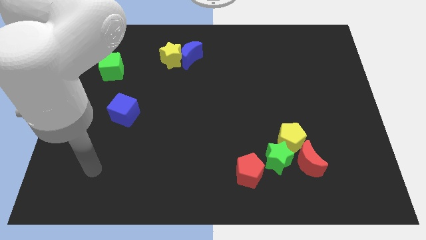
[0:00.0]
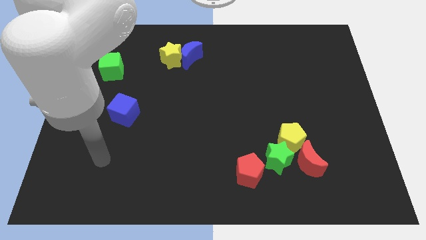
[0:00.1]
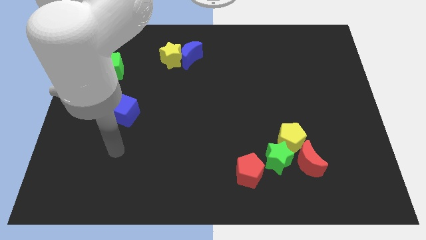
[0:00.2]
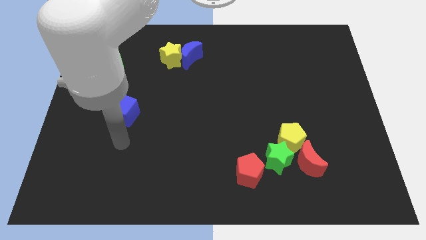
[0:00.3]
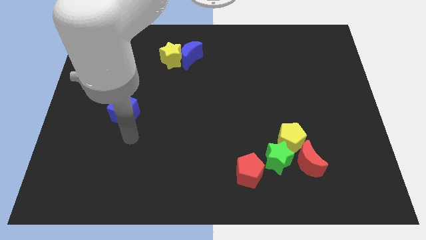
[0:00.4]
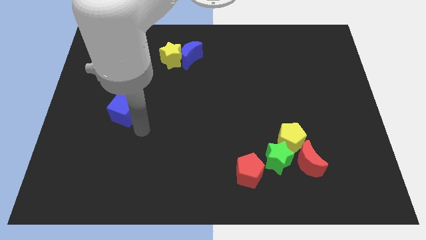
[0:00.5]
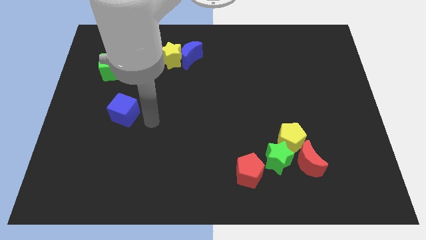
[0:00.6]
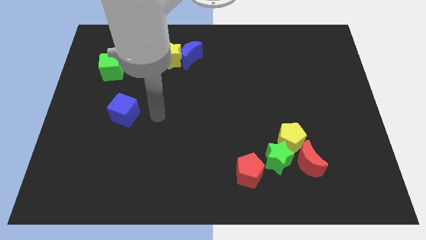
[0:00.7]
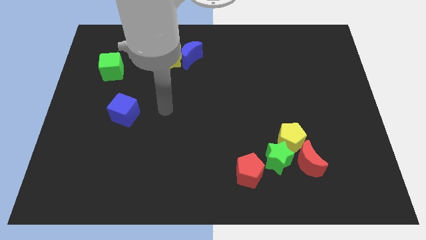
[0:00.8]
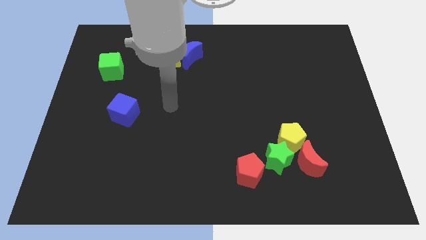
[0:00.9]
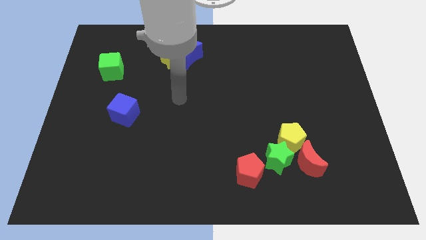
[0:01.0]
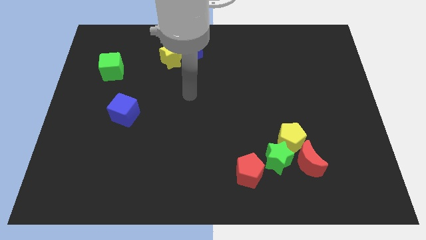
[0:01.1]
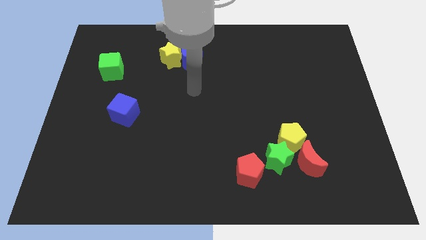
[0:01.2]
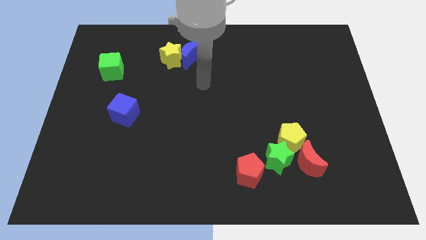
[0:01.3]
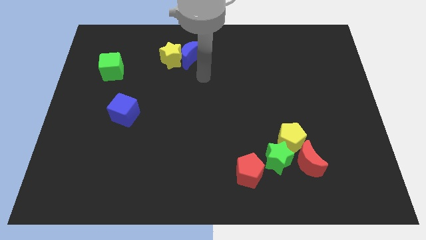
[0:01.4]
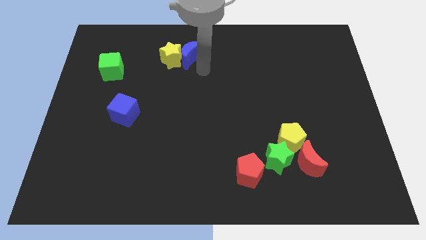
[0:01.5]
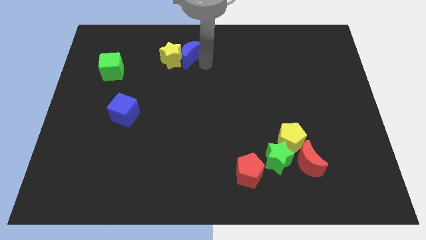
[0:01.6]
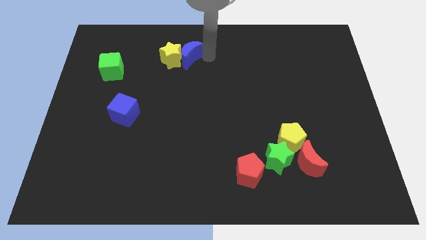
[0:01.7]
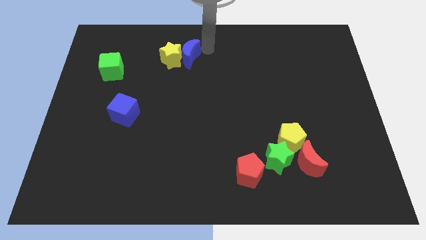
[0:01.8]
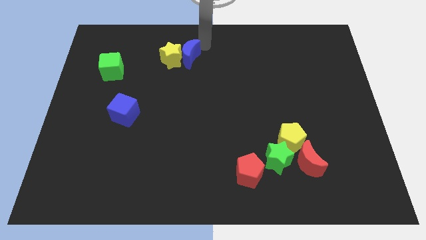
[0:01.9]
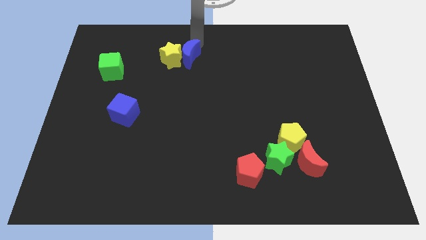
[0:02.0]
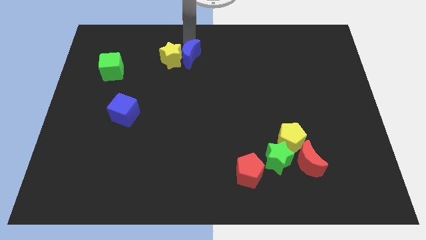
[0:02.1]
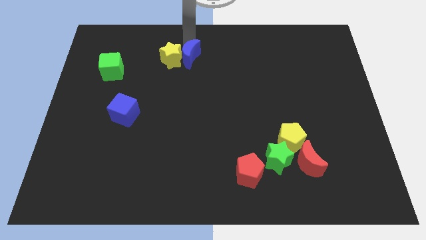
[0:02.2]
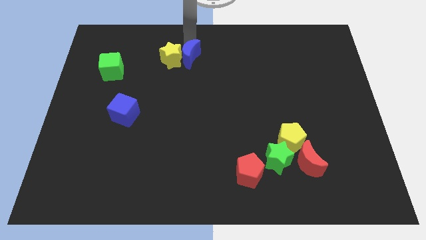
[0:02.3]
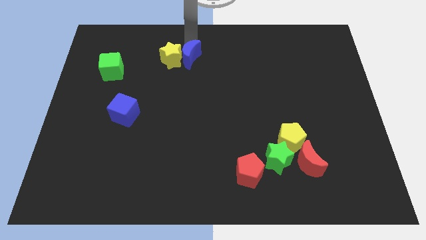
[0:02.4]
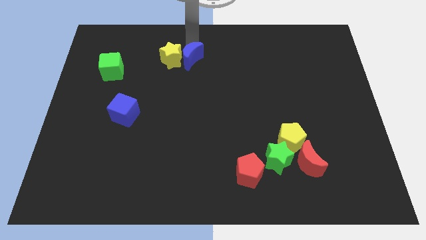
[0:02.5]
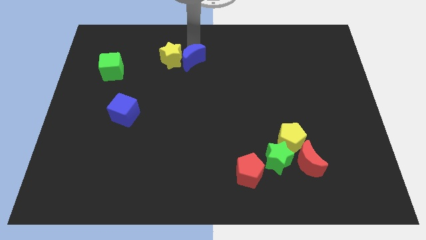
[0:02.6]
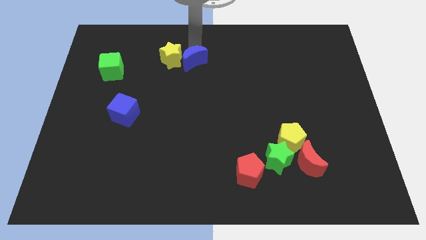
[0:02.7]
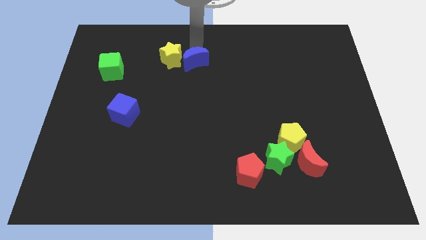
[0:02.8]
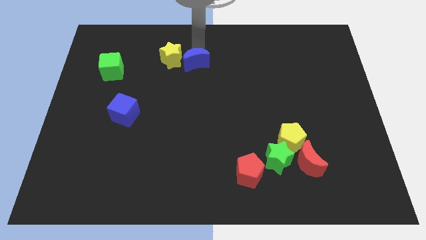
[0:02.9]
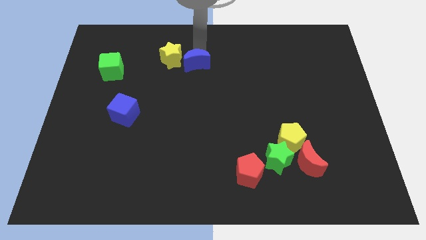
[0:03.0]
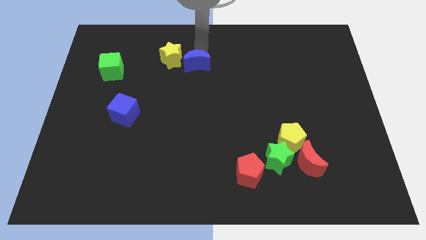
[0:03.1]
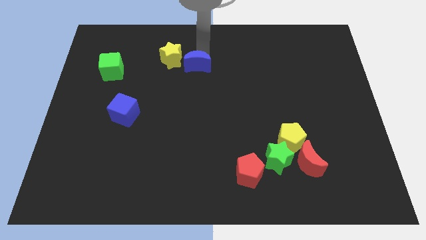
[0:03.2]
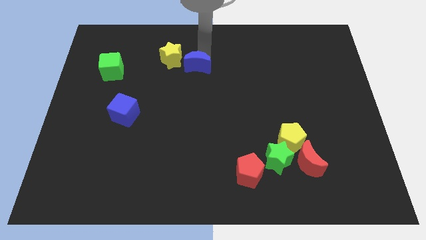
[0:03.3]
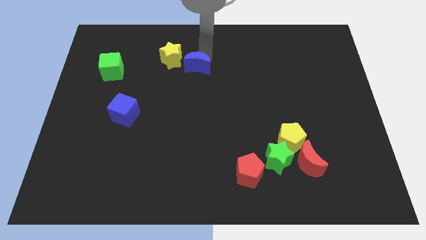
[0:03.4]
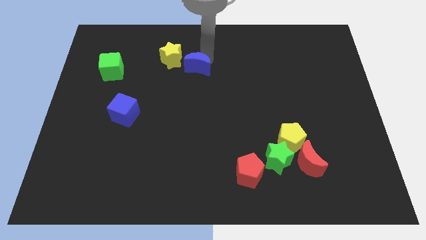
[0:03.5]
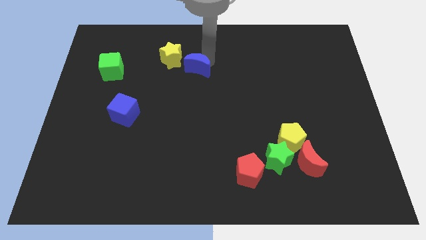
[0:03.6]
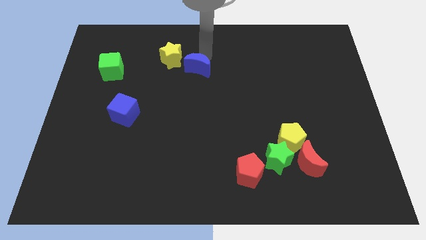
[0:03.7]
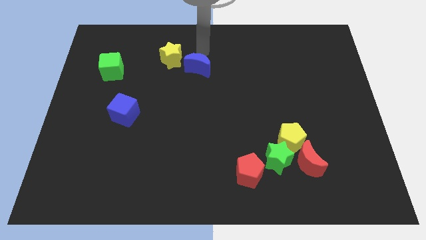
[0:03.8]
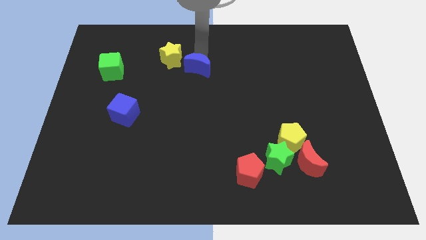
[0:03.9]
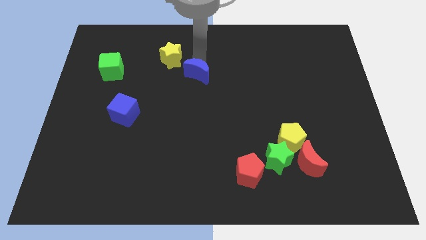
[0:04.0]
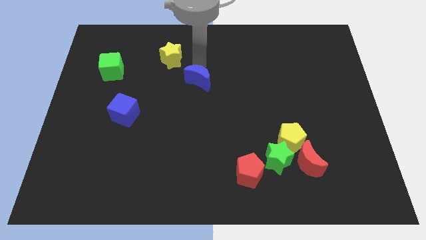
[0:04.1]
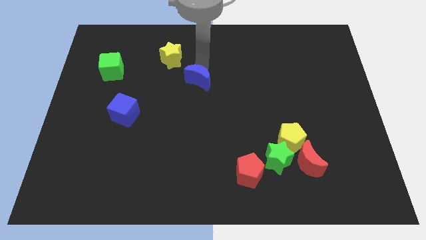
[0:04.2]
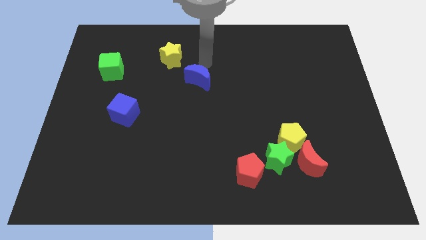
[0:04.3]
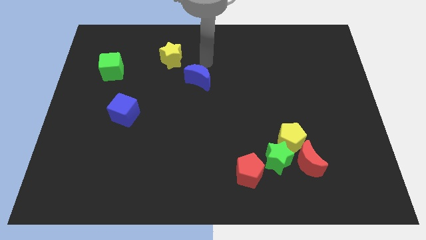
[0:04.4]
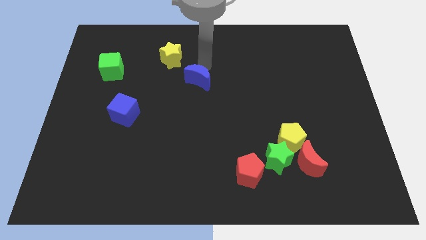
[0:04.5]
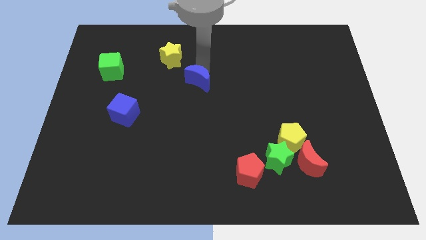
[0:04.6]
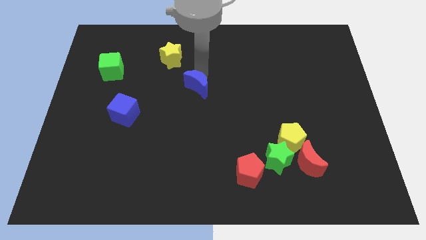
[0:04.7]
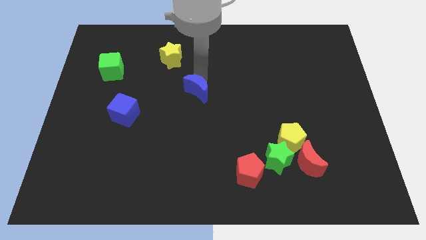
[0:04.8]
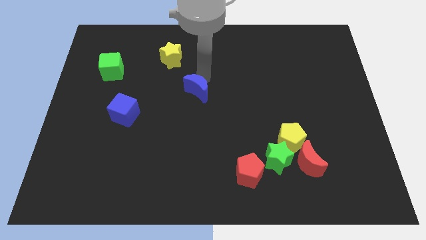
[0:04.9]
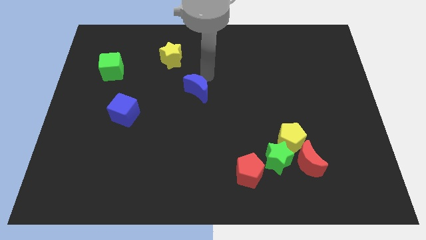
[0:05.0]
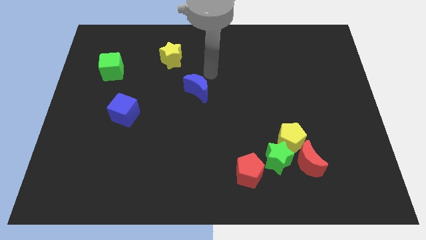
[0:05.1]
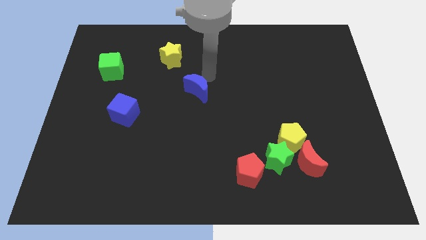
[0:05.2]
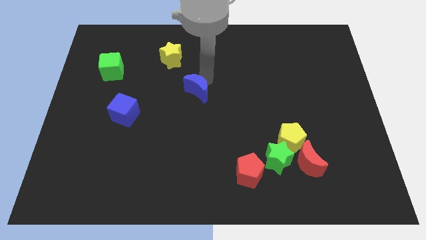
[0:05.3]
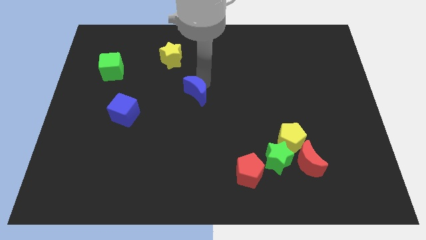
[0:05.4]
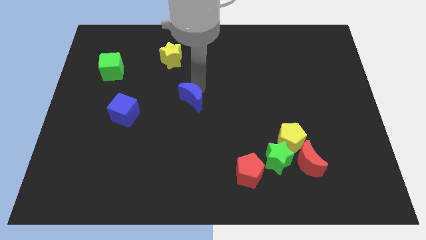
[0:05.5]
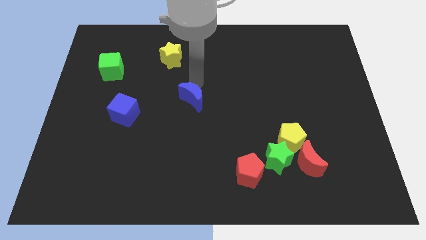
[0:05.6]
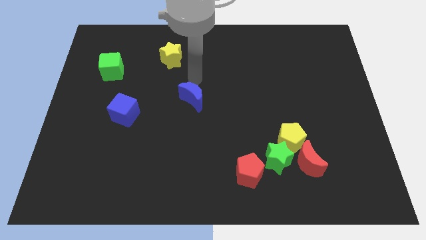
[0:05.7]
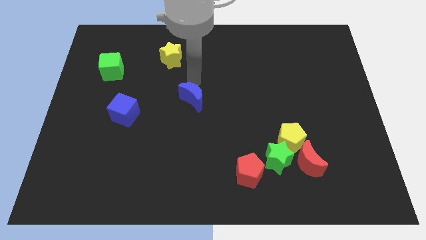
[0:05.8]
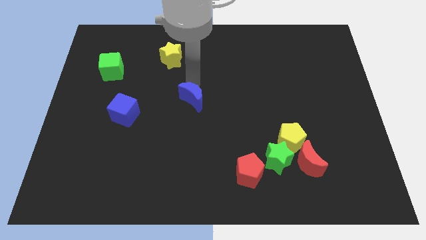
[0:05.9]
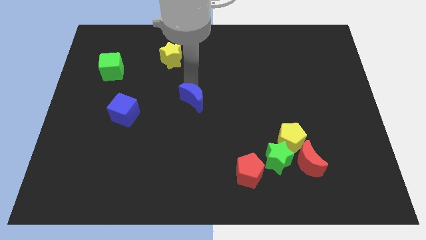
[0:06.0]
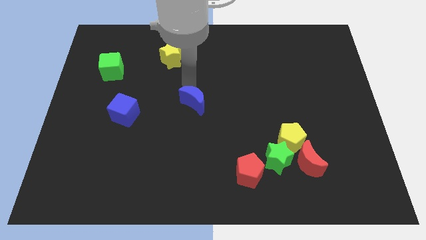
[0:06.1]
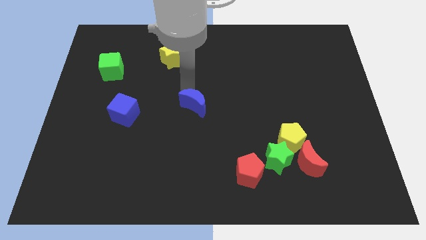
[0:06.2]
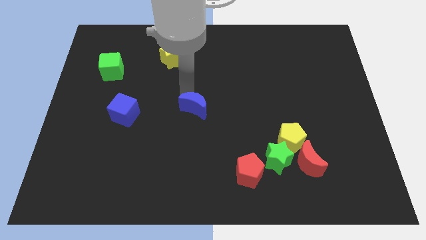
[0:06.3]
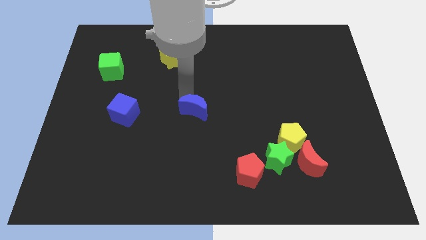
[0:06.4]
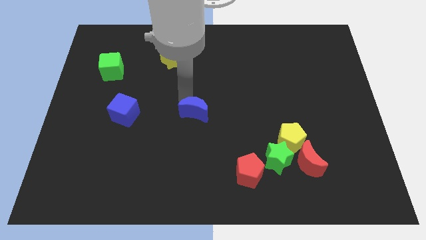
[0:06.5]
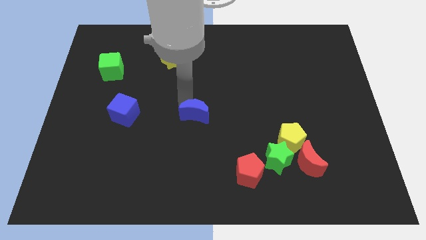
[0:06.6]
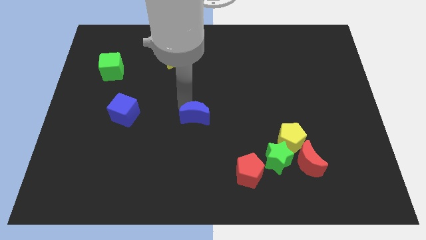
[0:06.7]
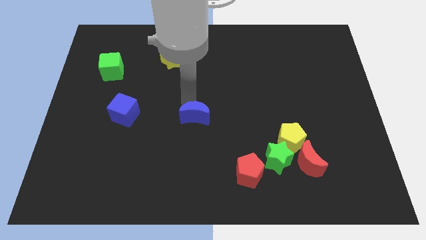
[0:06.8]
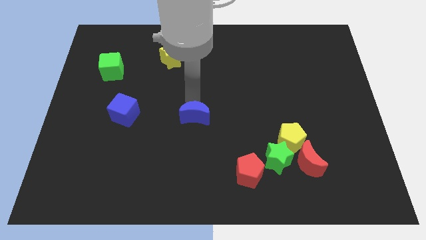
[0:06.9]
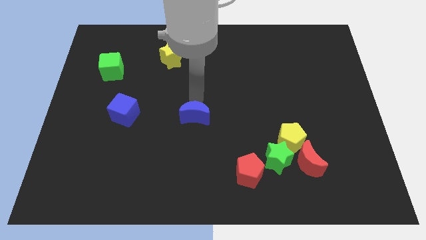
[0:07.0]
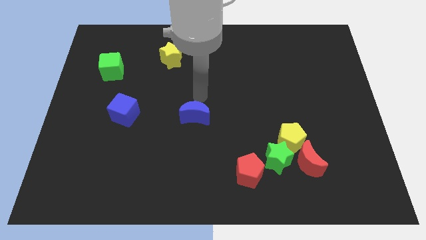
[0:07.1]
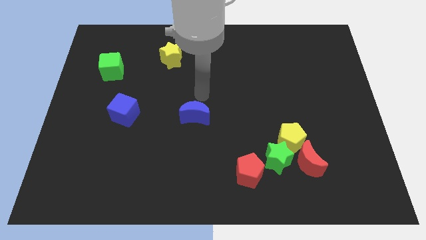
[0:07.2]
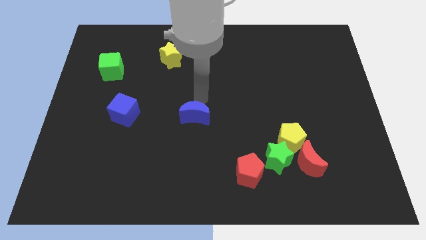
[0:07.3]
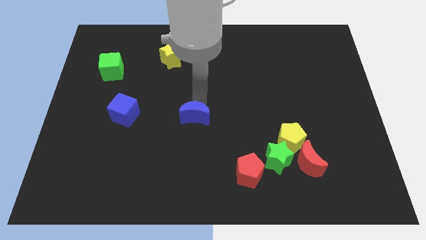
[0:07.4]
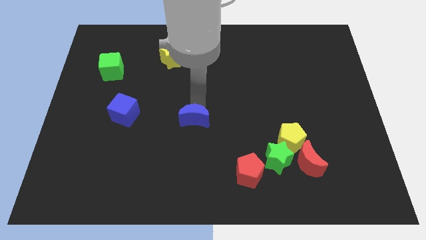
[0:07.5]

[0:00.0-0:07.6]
push the blue moon downwards

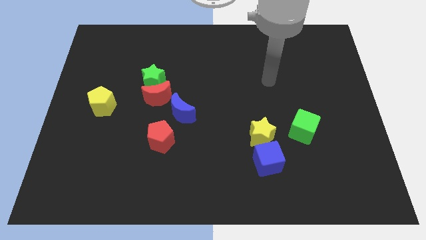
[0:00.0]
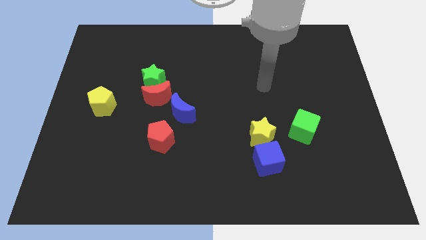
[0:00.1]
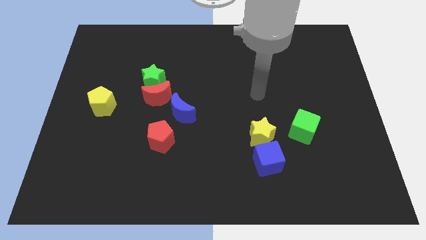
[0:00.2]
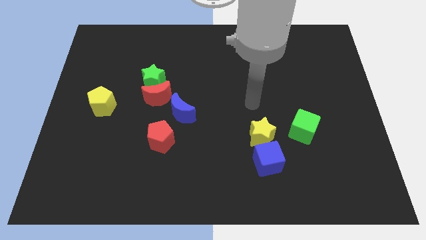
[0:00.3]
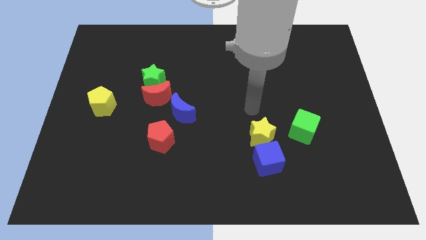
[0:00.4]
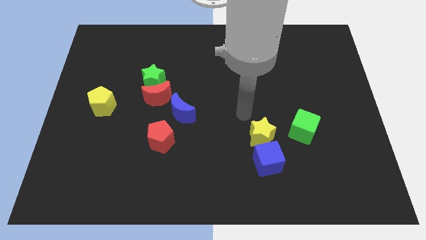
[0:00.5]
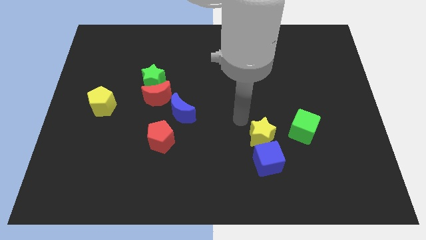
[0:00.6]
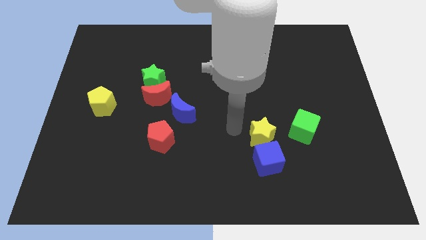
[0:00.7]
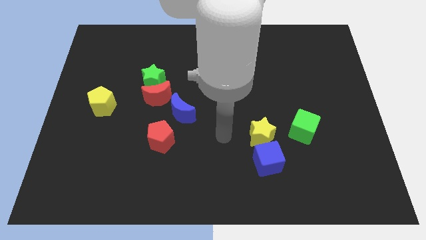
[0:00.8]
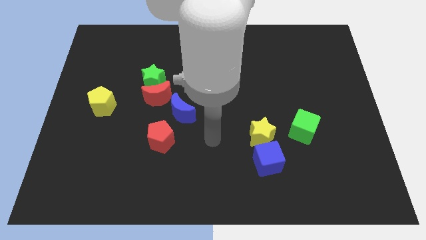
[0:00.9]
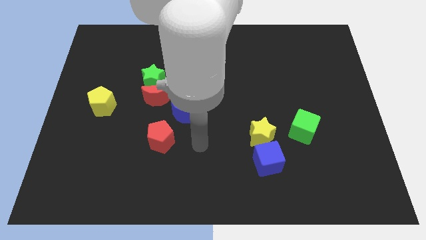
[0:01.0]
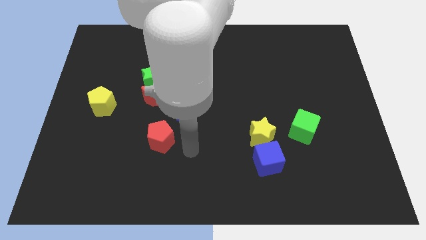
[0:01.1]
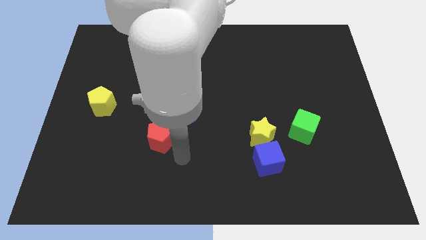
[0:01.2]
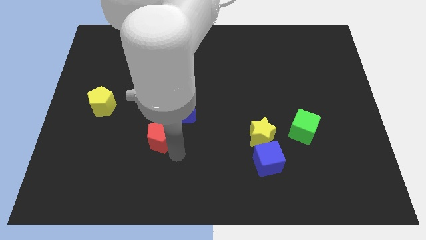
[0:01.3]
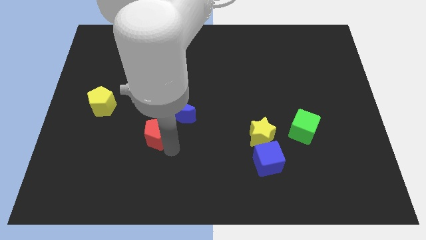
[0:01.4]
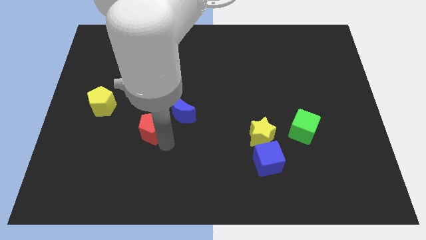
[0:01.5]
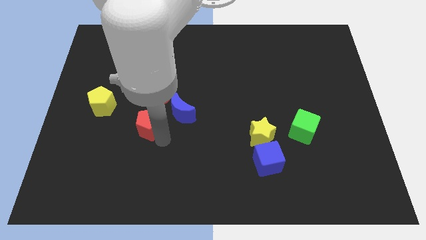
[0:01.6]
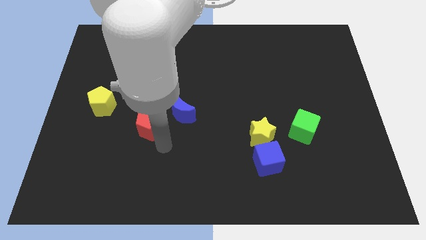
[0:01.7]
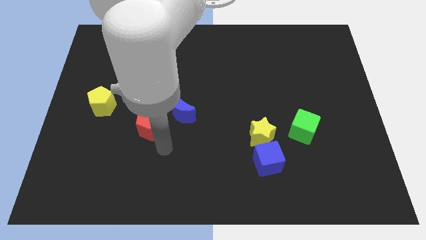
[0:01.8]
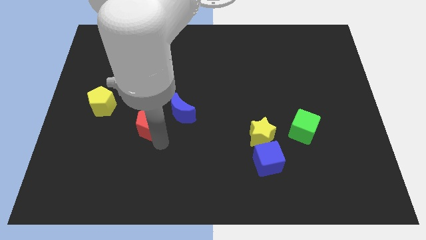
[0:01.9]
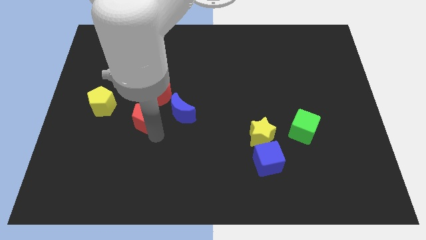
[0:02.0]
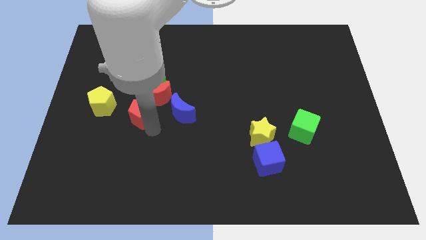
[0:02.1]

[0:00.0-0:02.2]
push the red pentagon upwards and then left a bit
